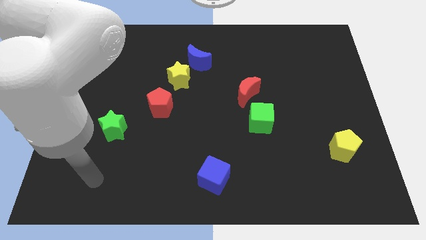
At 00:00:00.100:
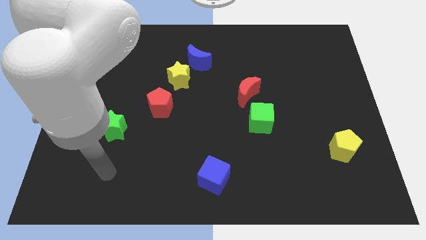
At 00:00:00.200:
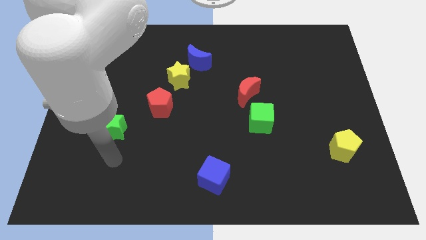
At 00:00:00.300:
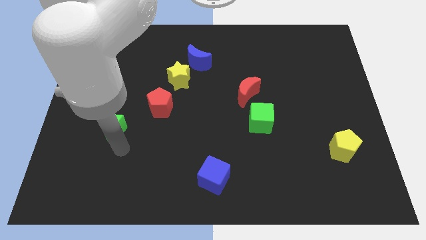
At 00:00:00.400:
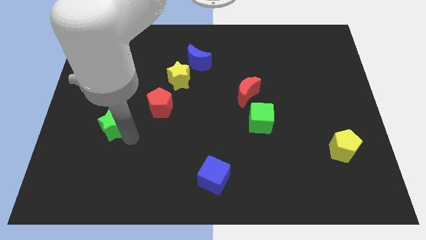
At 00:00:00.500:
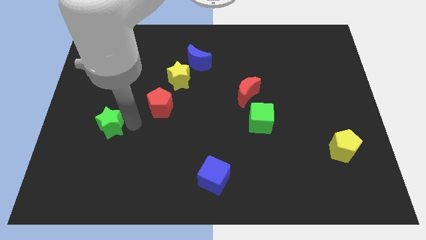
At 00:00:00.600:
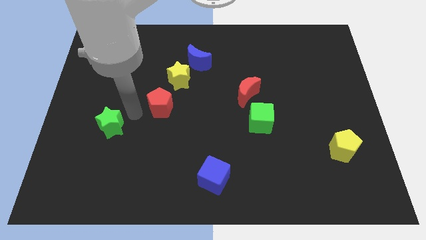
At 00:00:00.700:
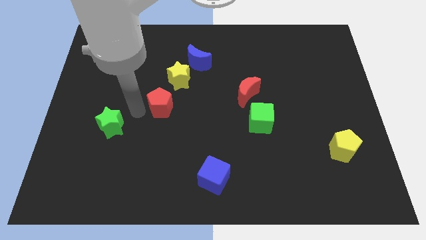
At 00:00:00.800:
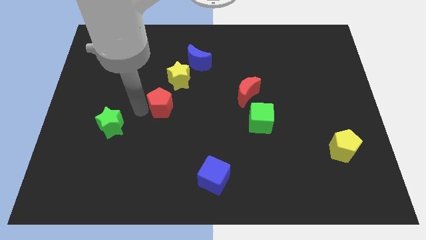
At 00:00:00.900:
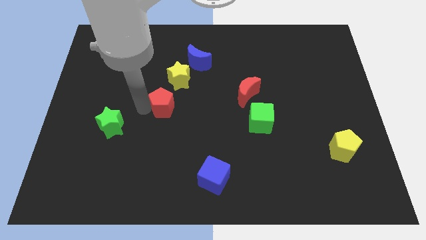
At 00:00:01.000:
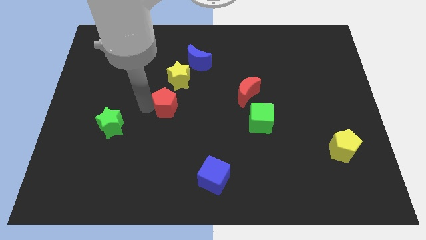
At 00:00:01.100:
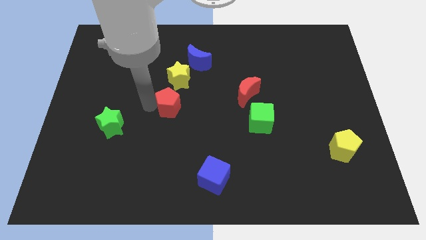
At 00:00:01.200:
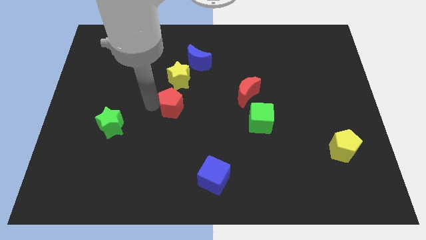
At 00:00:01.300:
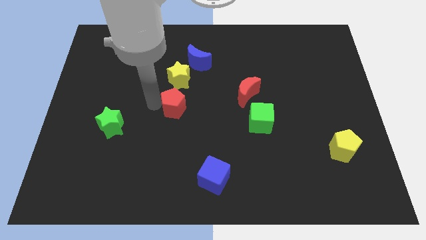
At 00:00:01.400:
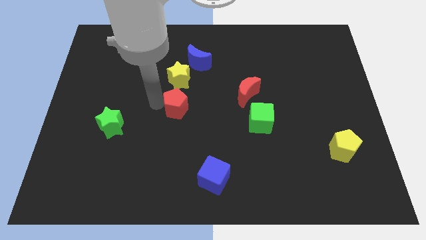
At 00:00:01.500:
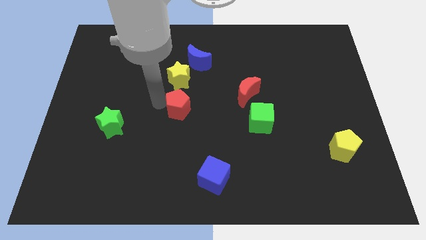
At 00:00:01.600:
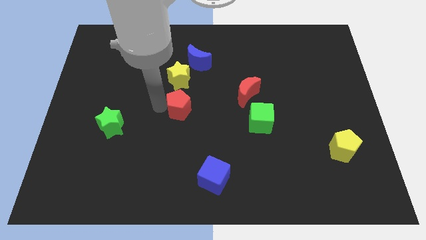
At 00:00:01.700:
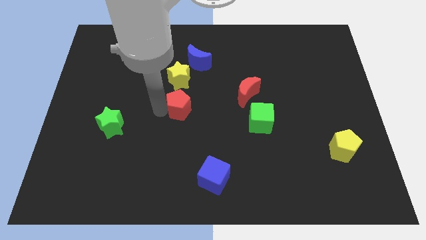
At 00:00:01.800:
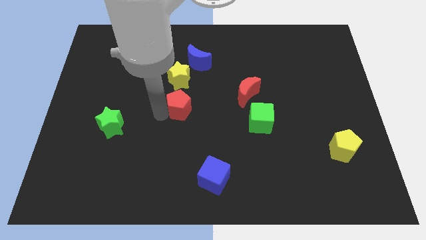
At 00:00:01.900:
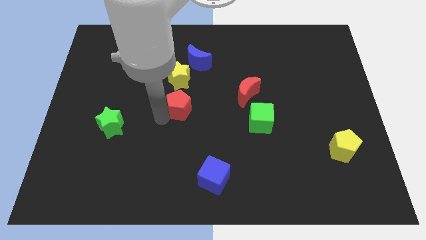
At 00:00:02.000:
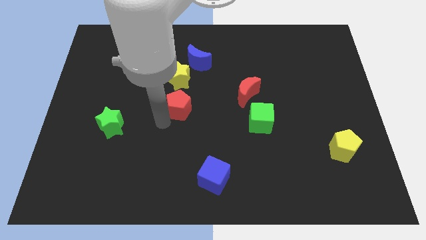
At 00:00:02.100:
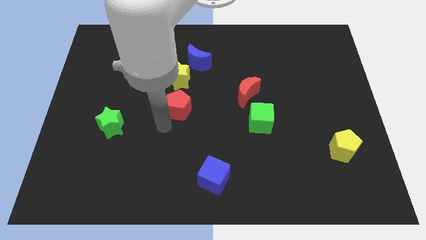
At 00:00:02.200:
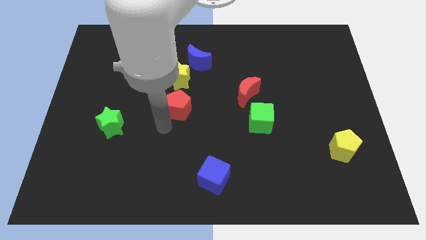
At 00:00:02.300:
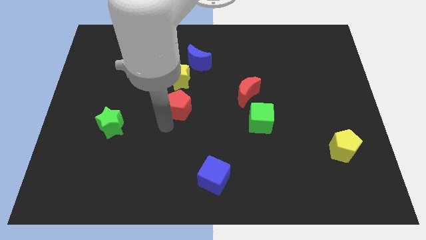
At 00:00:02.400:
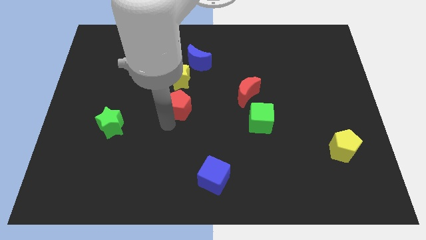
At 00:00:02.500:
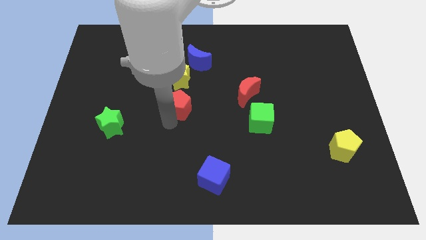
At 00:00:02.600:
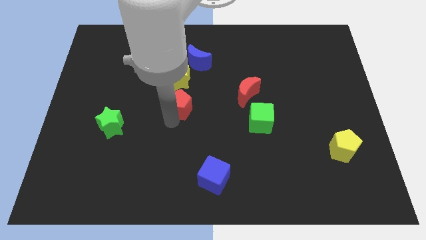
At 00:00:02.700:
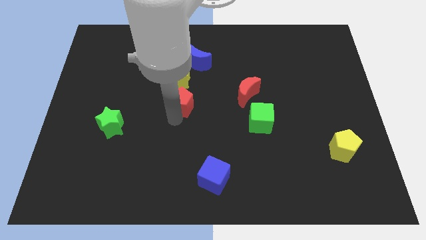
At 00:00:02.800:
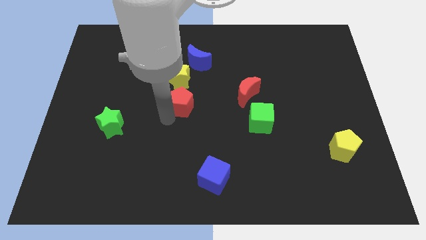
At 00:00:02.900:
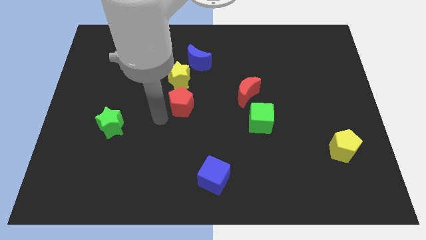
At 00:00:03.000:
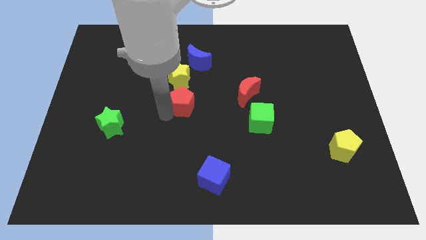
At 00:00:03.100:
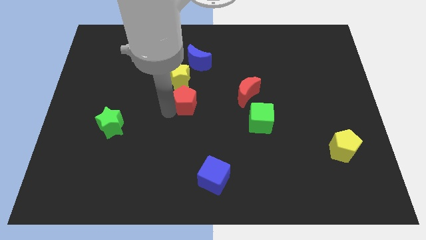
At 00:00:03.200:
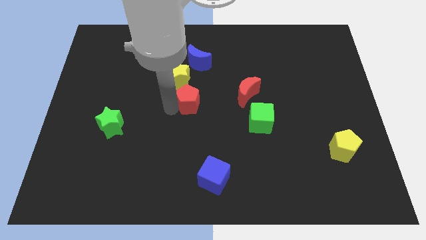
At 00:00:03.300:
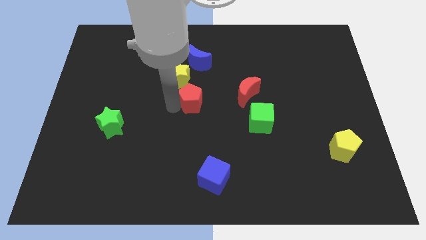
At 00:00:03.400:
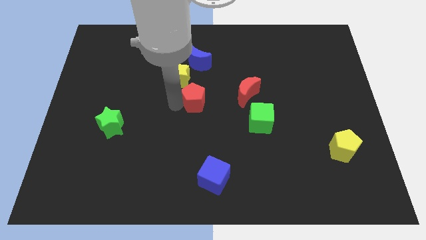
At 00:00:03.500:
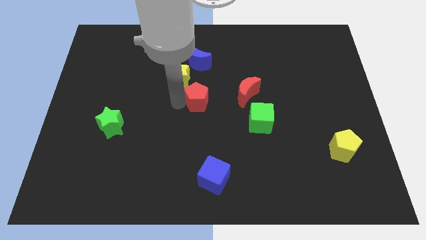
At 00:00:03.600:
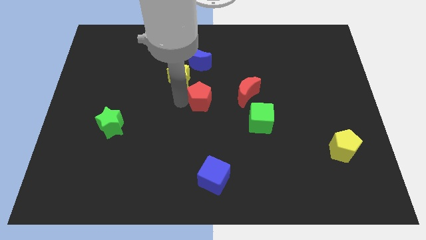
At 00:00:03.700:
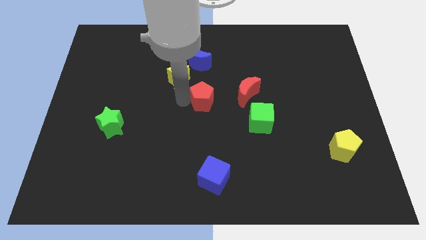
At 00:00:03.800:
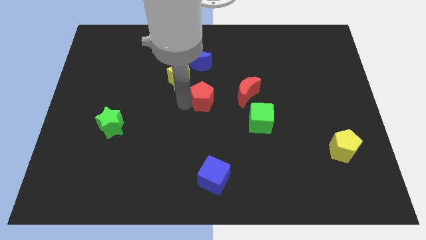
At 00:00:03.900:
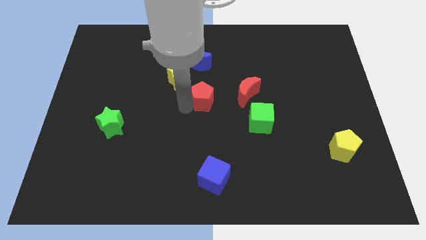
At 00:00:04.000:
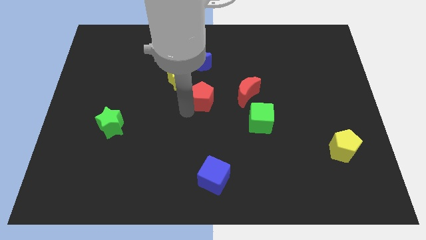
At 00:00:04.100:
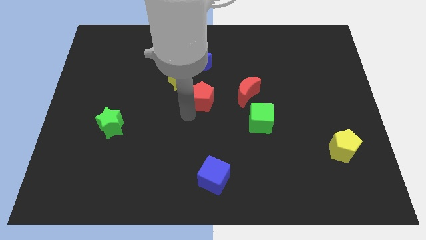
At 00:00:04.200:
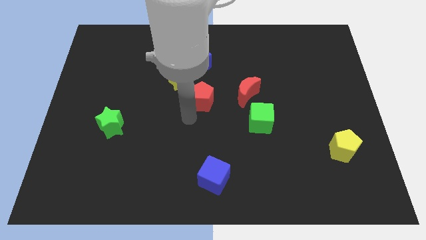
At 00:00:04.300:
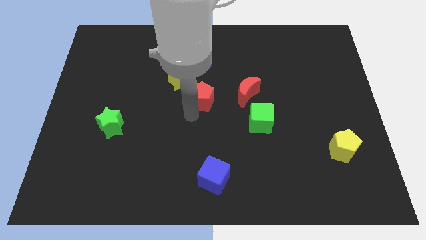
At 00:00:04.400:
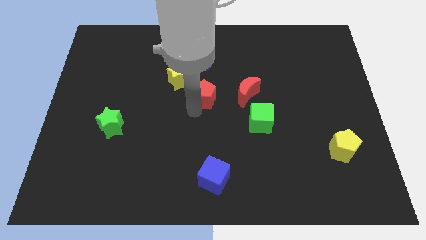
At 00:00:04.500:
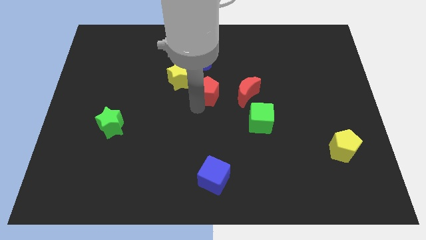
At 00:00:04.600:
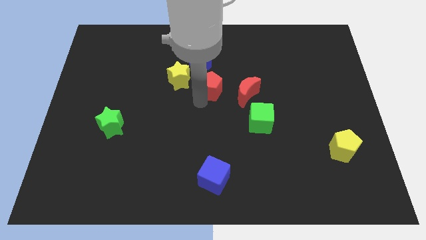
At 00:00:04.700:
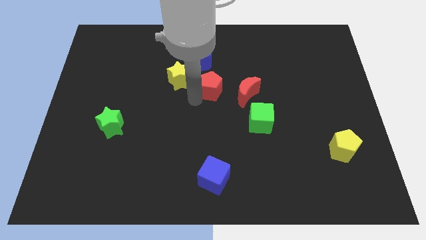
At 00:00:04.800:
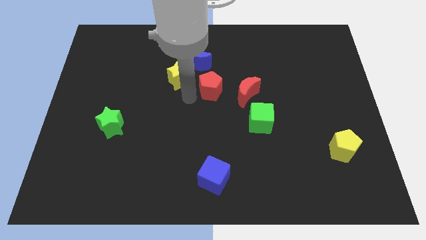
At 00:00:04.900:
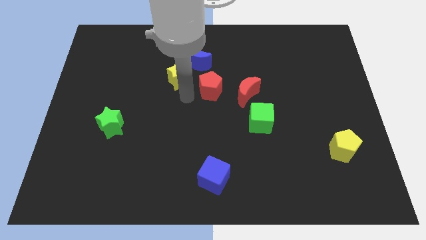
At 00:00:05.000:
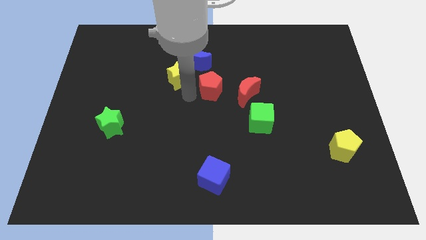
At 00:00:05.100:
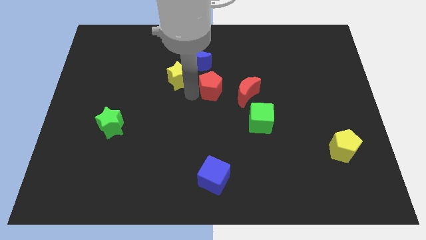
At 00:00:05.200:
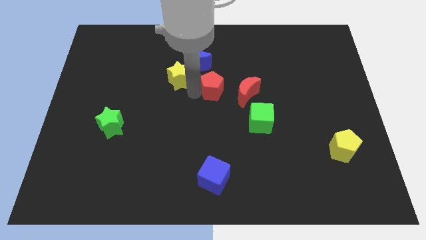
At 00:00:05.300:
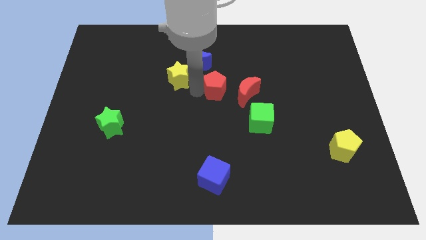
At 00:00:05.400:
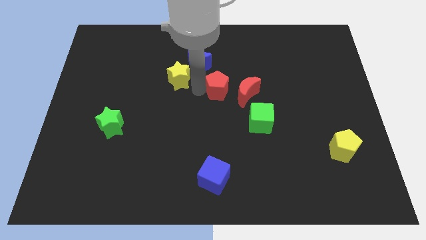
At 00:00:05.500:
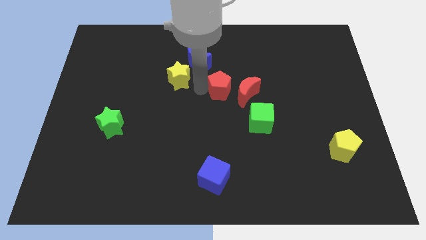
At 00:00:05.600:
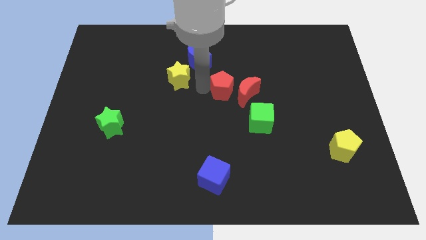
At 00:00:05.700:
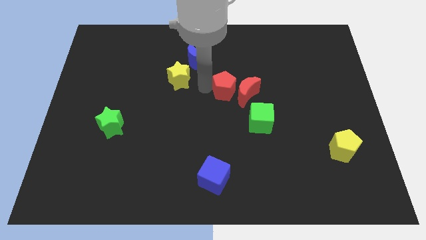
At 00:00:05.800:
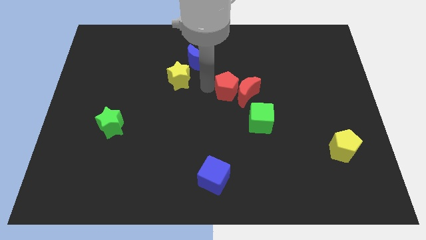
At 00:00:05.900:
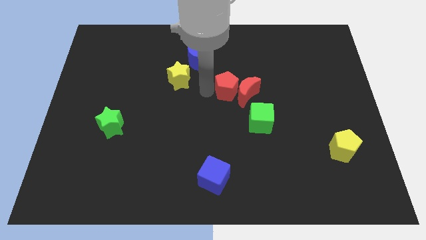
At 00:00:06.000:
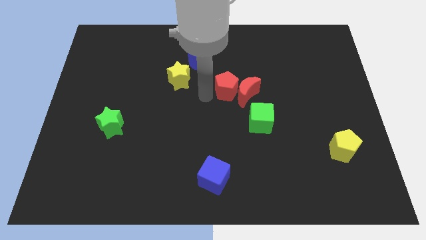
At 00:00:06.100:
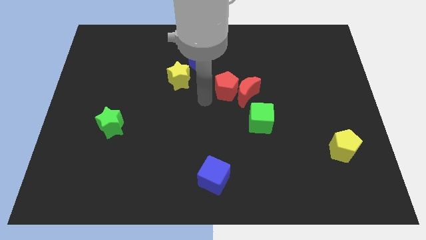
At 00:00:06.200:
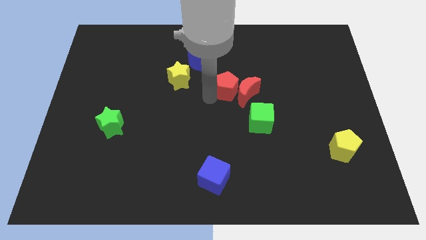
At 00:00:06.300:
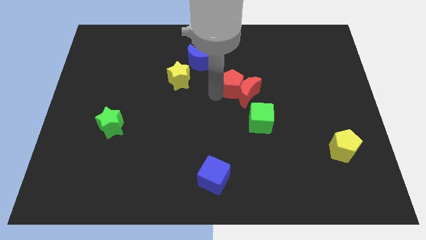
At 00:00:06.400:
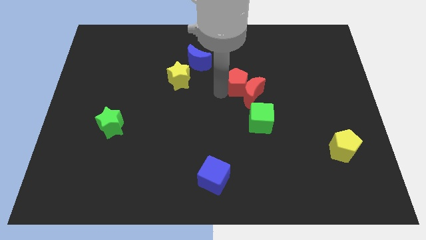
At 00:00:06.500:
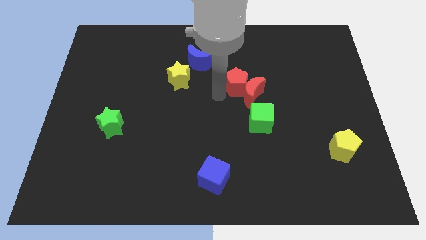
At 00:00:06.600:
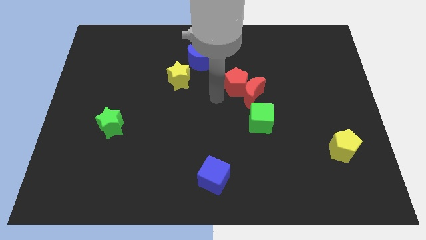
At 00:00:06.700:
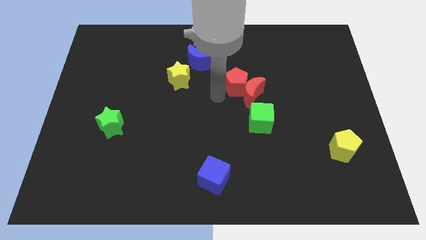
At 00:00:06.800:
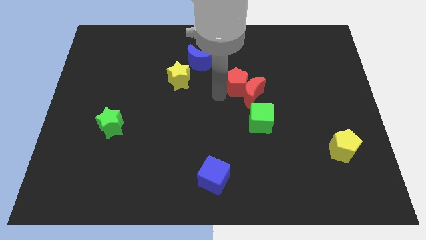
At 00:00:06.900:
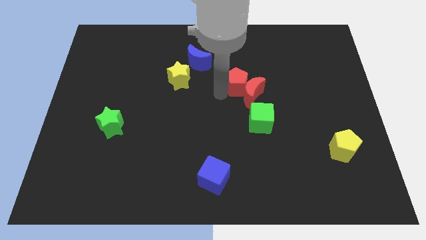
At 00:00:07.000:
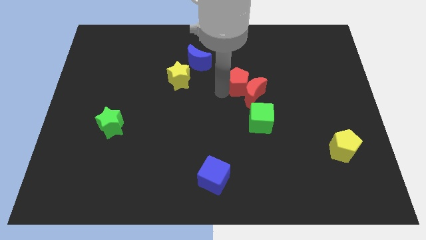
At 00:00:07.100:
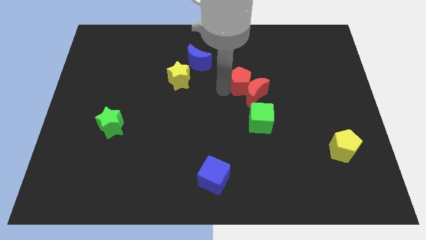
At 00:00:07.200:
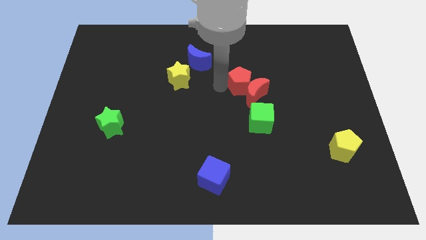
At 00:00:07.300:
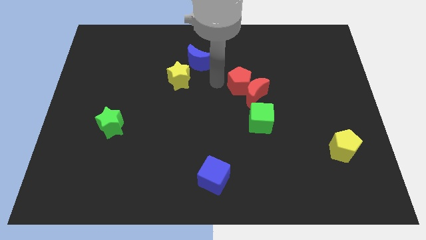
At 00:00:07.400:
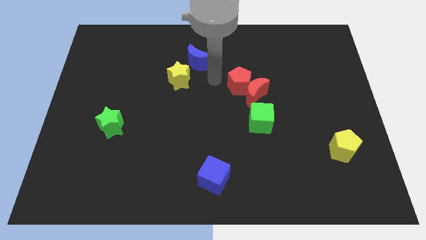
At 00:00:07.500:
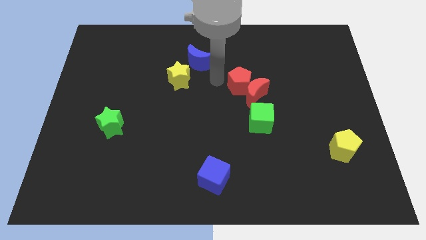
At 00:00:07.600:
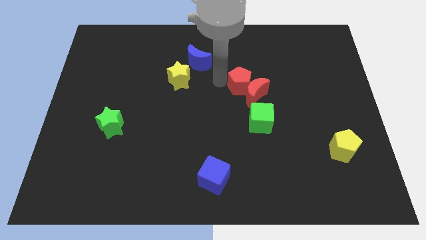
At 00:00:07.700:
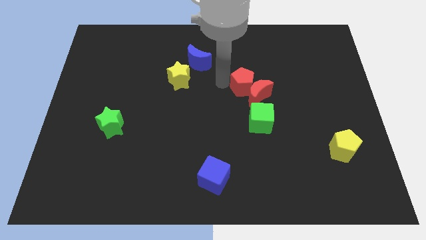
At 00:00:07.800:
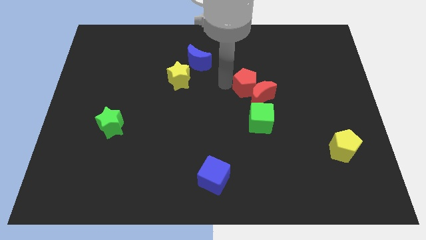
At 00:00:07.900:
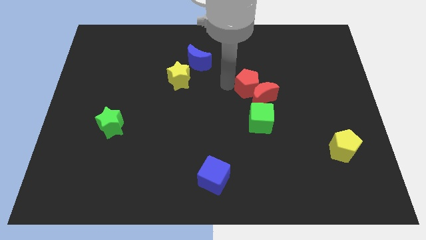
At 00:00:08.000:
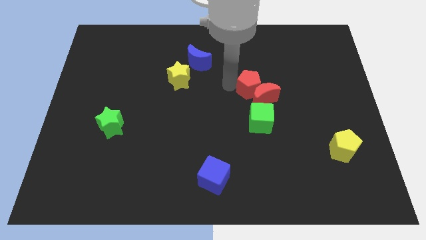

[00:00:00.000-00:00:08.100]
move the red pentagon right
